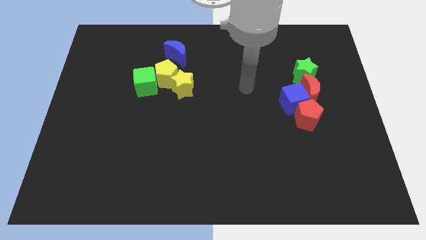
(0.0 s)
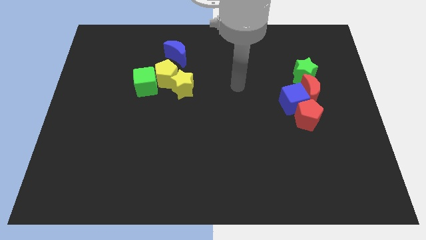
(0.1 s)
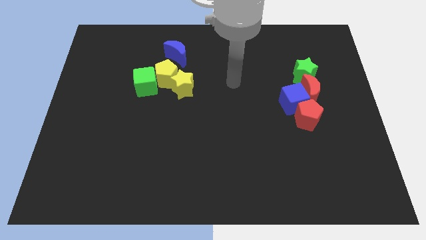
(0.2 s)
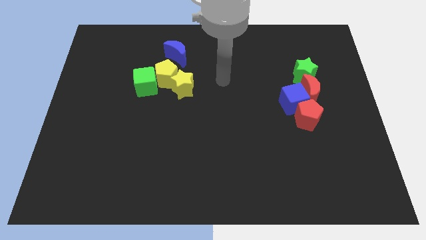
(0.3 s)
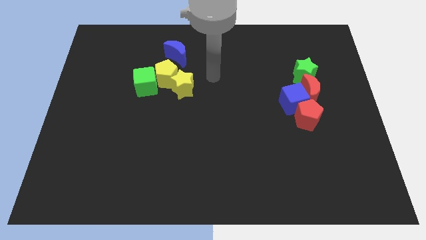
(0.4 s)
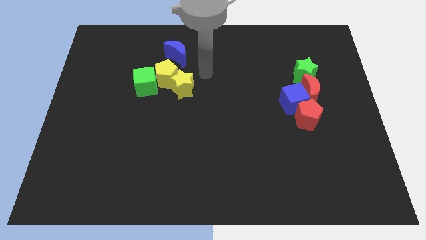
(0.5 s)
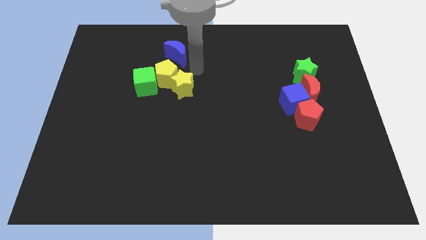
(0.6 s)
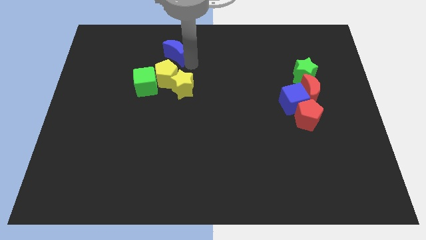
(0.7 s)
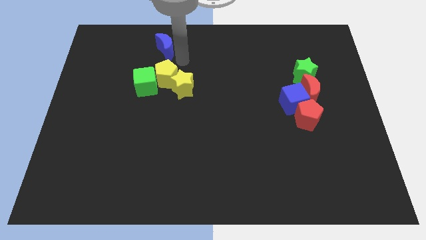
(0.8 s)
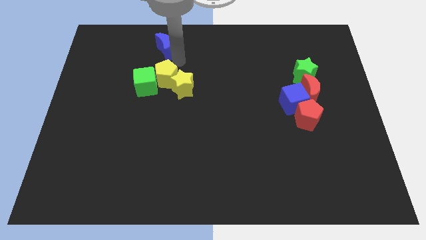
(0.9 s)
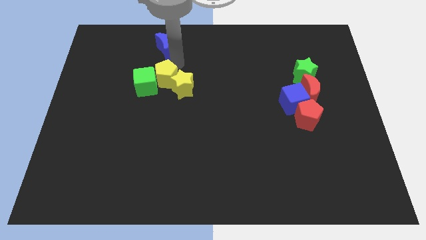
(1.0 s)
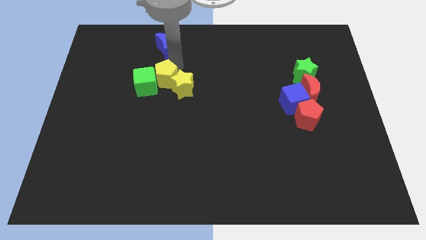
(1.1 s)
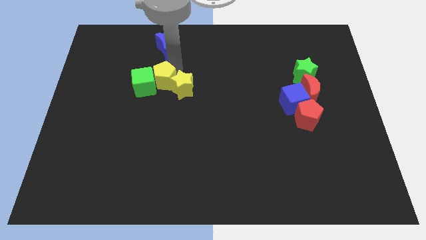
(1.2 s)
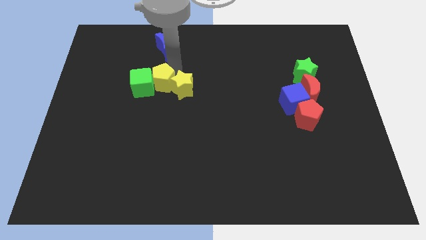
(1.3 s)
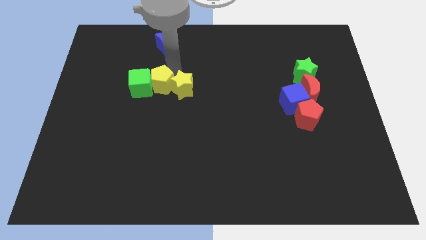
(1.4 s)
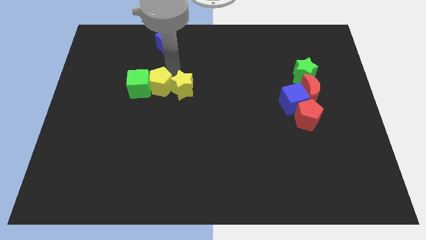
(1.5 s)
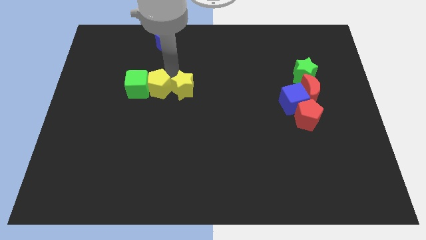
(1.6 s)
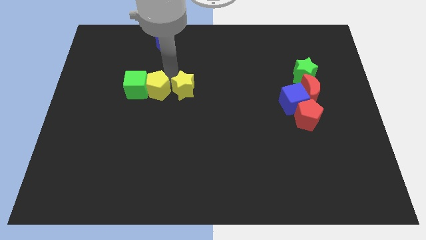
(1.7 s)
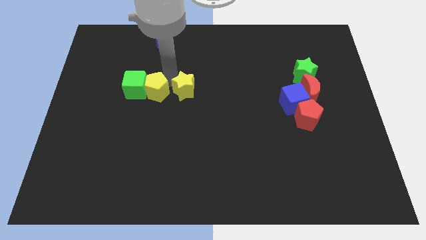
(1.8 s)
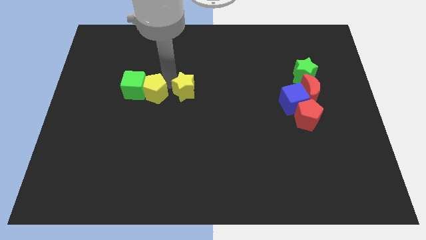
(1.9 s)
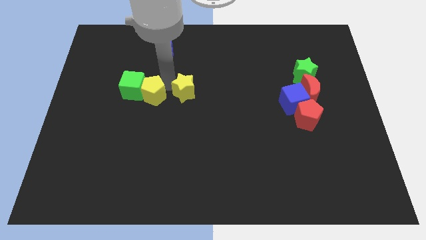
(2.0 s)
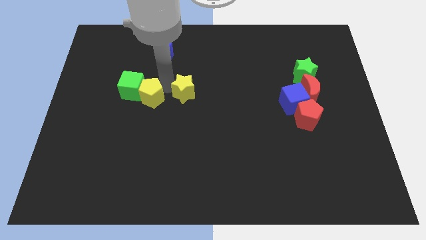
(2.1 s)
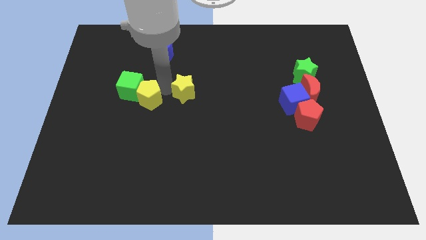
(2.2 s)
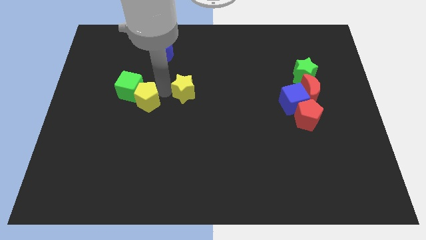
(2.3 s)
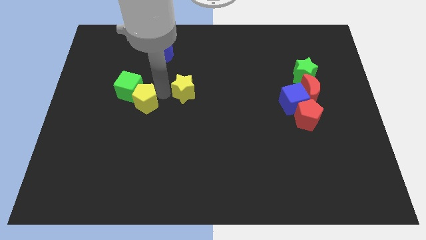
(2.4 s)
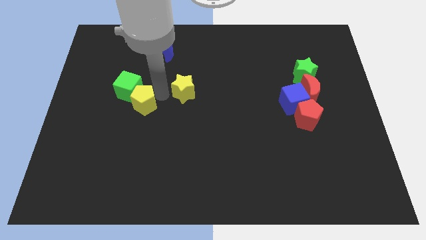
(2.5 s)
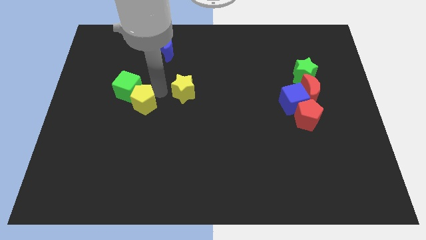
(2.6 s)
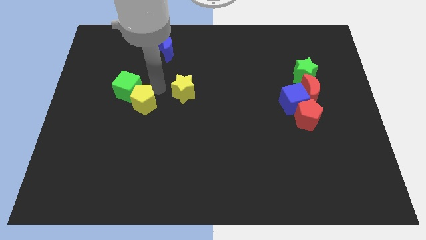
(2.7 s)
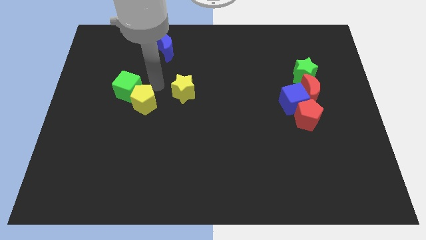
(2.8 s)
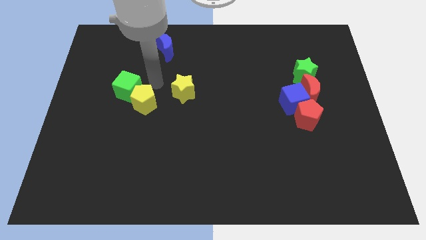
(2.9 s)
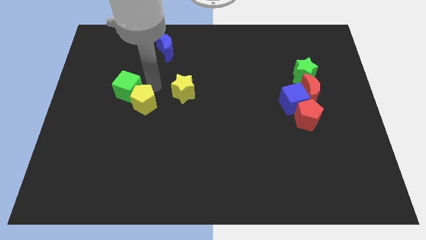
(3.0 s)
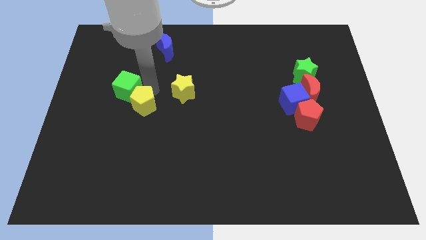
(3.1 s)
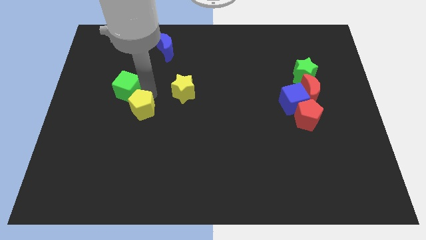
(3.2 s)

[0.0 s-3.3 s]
separate the yellow pentagon from the green cube, yellow star, and blue moon

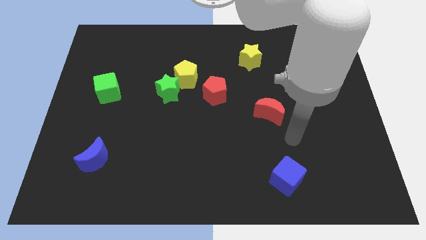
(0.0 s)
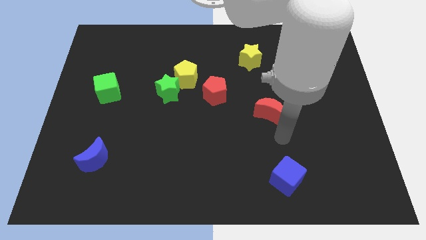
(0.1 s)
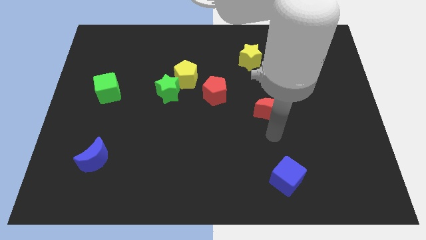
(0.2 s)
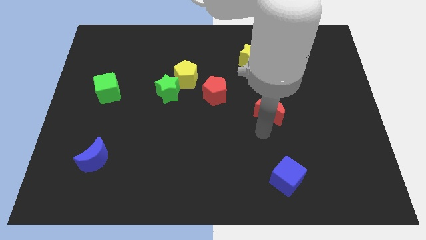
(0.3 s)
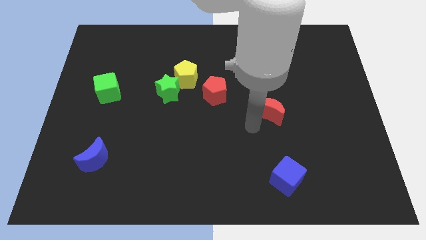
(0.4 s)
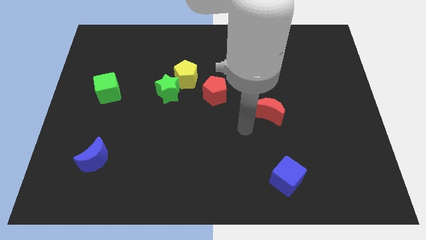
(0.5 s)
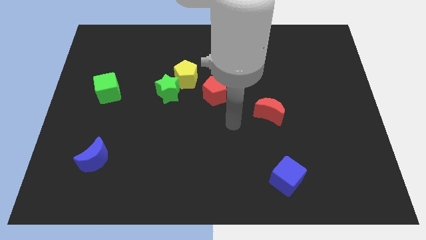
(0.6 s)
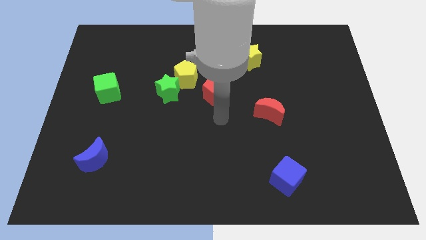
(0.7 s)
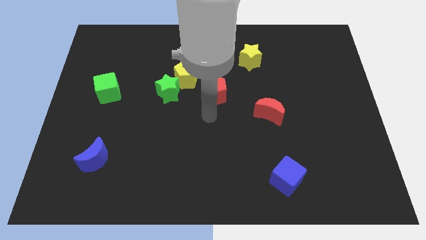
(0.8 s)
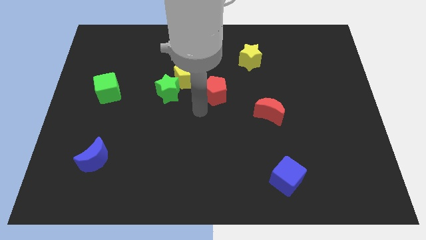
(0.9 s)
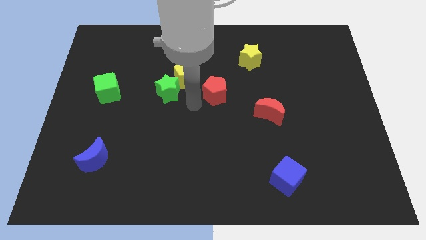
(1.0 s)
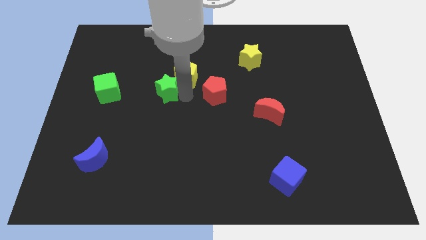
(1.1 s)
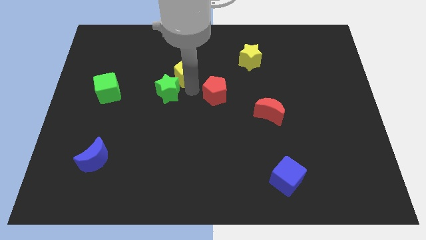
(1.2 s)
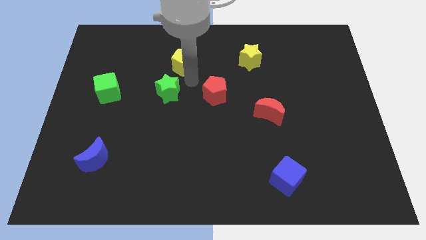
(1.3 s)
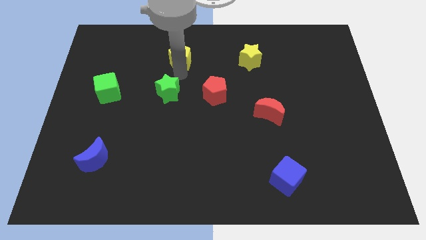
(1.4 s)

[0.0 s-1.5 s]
move the green star away from the yellow pentagon

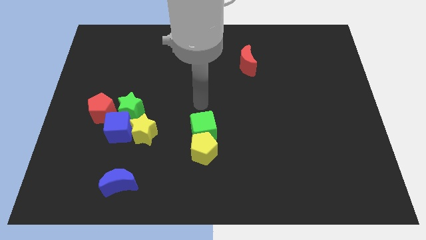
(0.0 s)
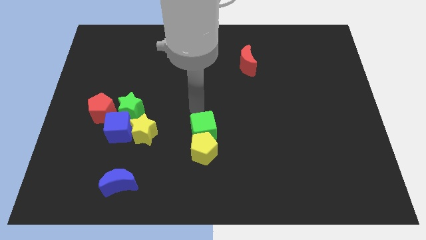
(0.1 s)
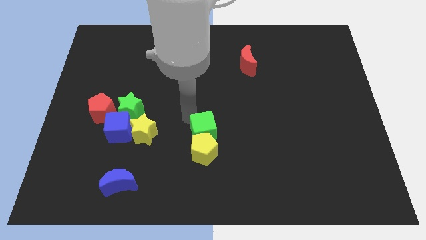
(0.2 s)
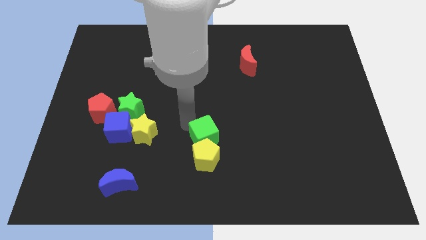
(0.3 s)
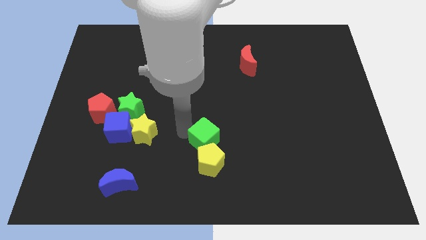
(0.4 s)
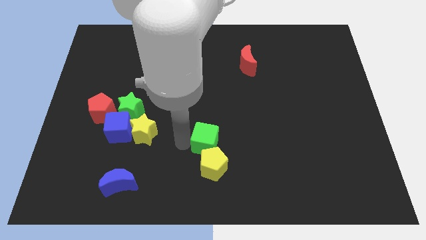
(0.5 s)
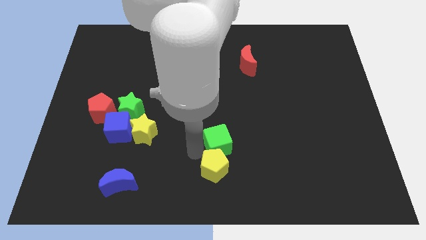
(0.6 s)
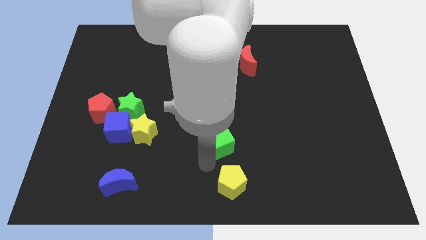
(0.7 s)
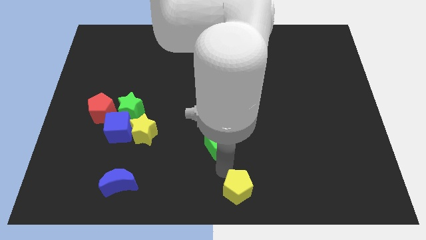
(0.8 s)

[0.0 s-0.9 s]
move the green cube away from the yellow pentagon

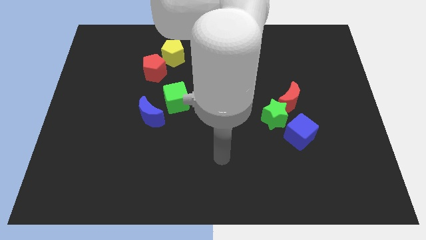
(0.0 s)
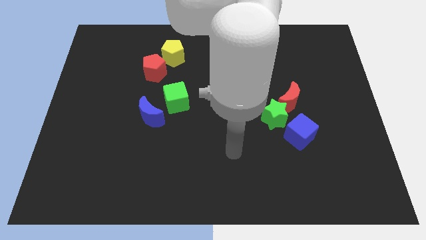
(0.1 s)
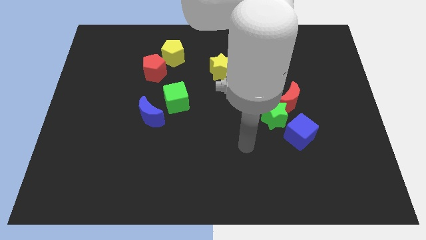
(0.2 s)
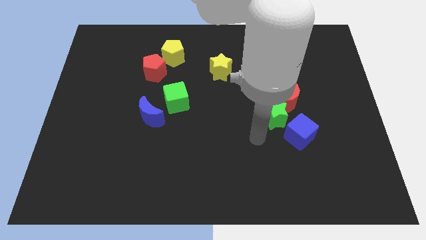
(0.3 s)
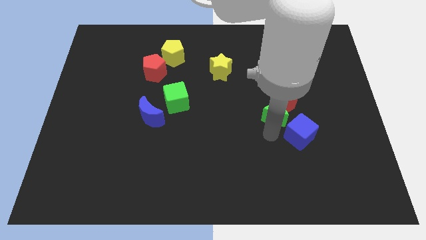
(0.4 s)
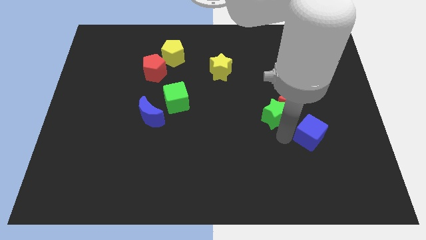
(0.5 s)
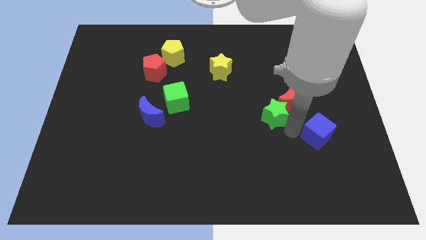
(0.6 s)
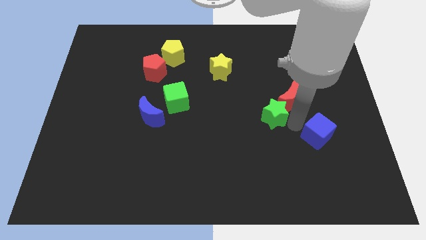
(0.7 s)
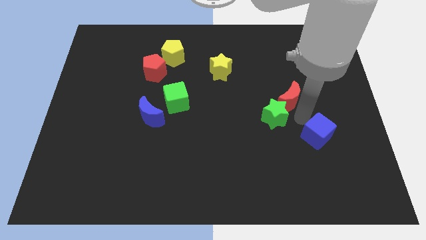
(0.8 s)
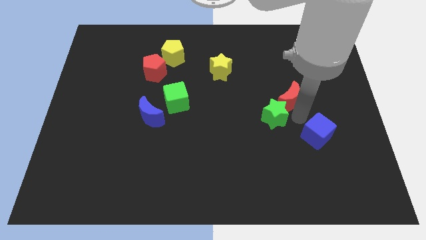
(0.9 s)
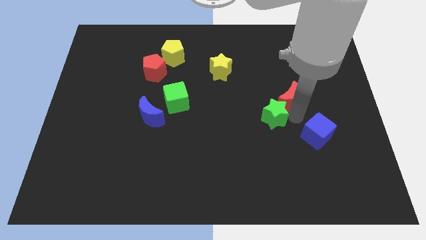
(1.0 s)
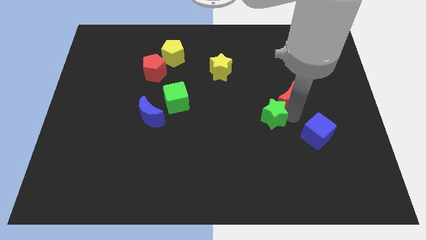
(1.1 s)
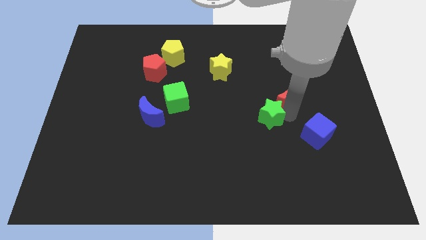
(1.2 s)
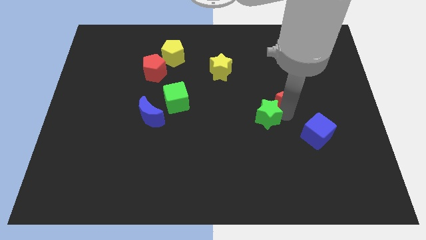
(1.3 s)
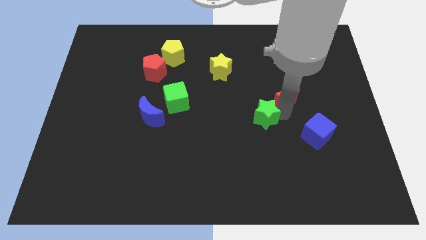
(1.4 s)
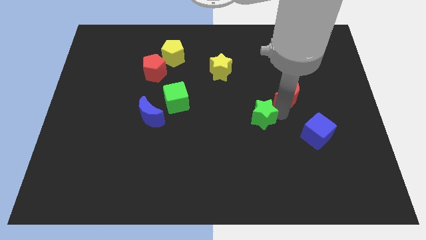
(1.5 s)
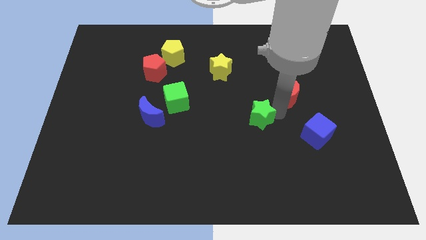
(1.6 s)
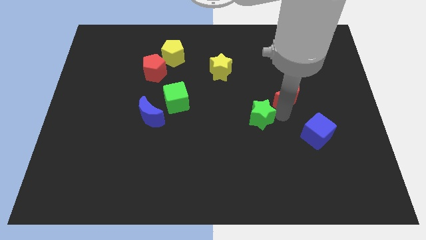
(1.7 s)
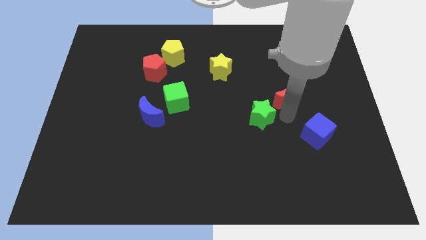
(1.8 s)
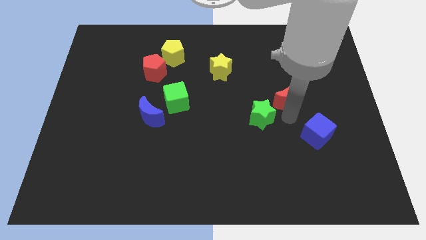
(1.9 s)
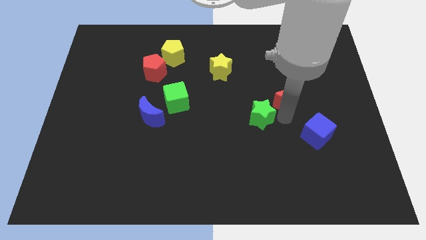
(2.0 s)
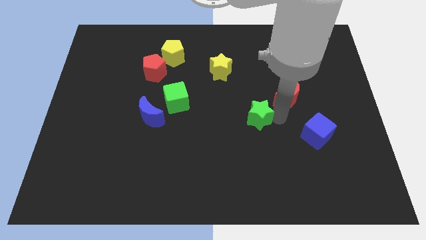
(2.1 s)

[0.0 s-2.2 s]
separate the green star from the red moon and blue cube

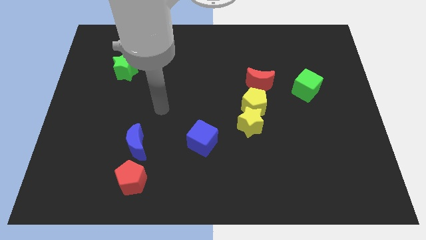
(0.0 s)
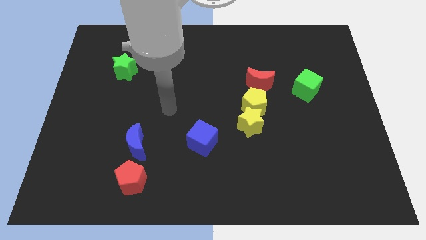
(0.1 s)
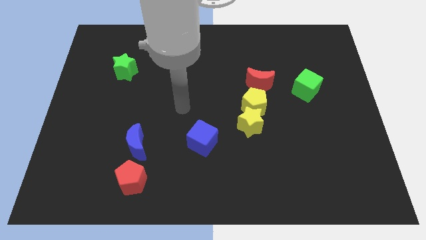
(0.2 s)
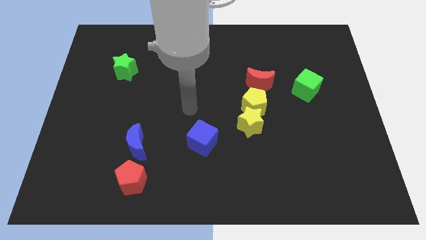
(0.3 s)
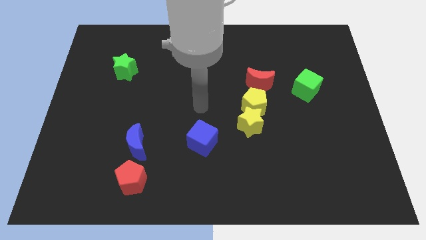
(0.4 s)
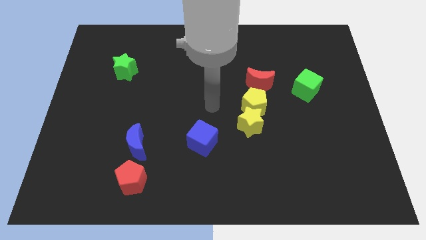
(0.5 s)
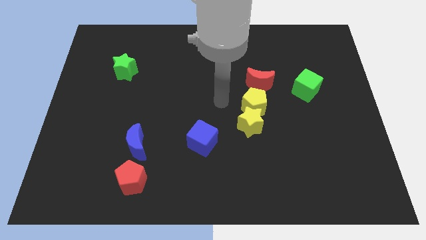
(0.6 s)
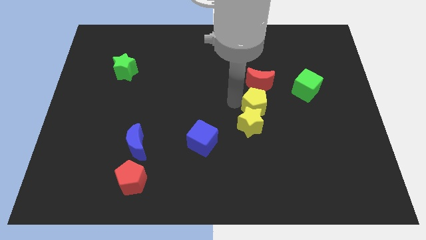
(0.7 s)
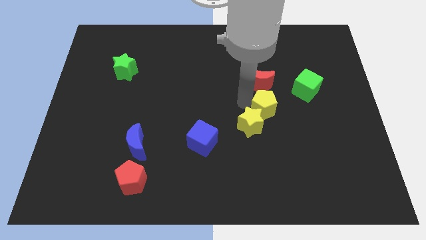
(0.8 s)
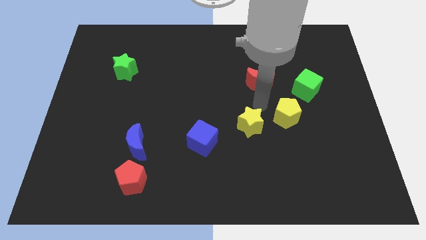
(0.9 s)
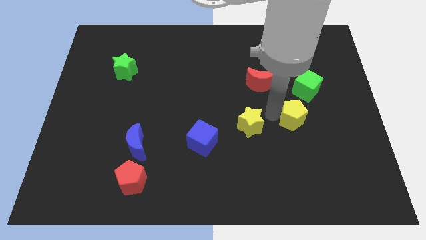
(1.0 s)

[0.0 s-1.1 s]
separate the yellow star from the yellow pentagon

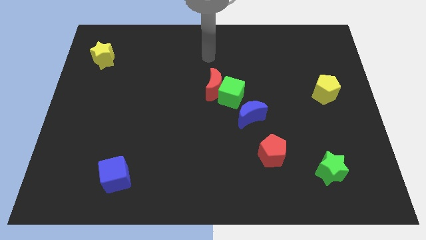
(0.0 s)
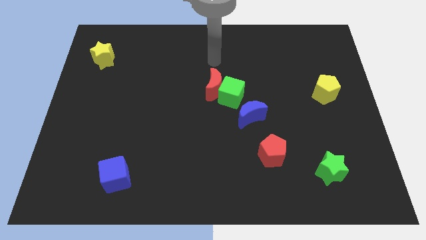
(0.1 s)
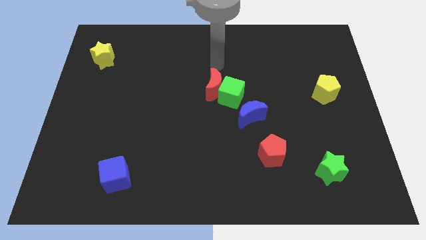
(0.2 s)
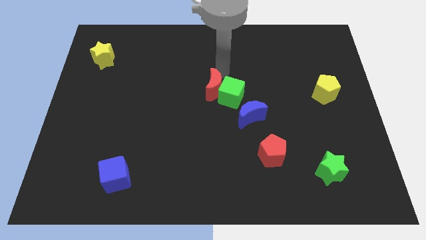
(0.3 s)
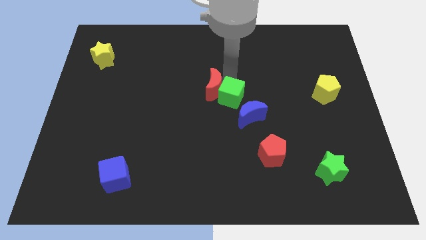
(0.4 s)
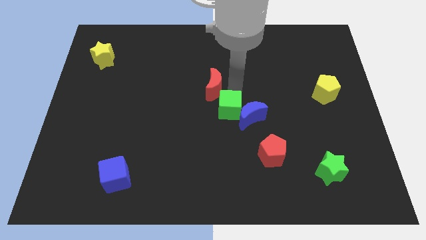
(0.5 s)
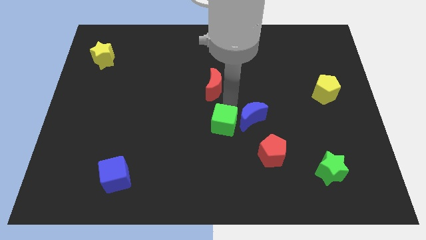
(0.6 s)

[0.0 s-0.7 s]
move the red moon away from the green cube
